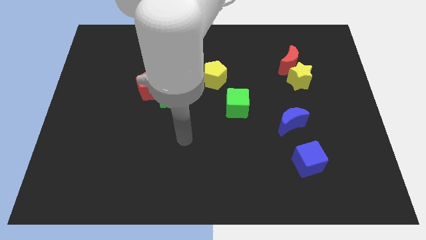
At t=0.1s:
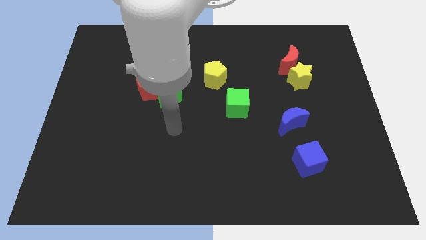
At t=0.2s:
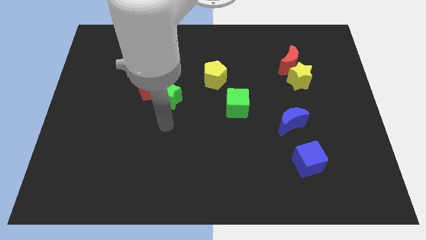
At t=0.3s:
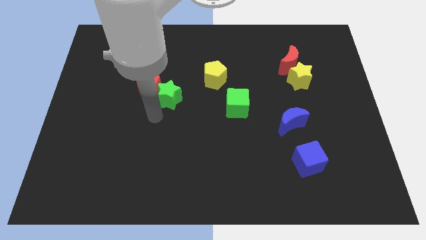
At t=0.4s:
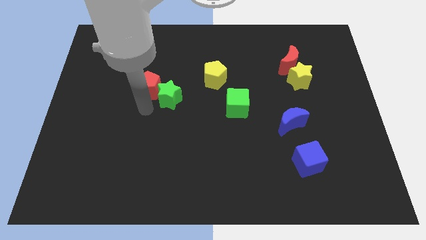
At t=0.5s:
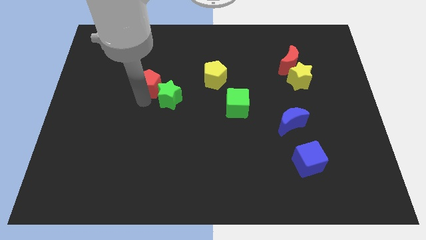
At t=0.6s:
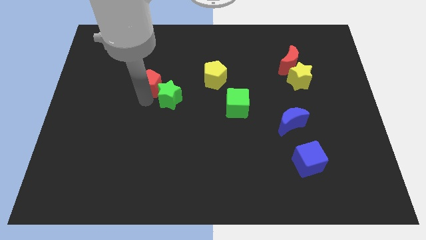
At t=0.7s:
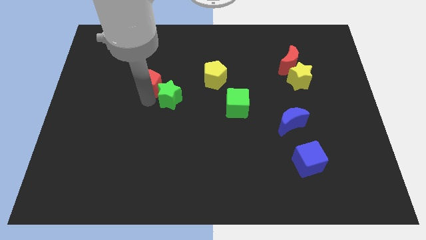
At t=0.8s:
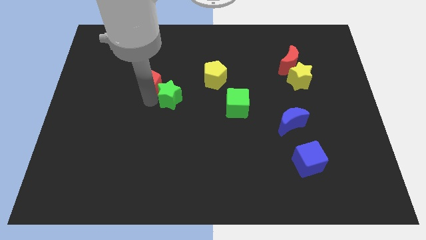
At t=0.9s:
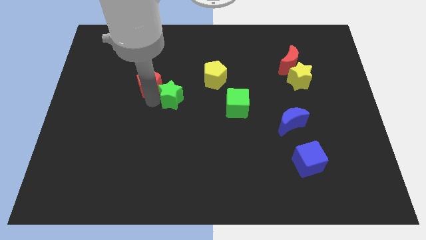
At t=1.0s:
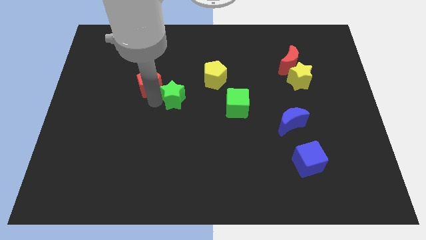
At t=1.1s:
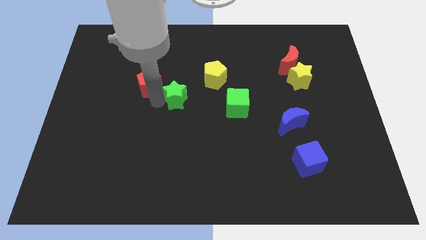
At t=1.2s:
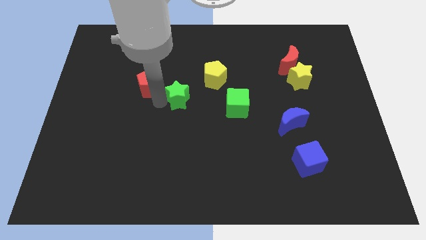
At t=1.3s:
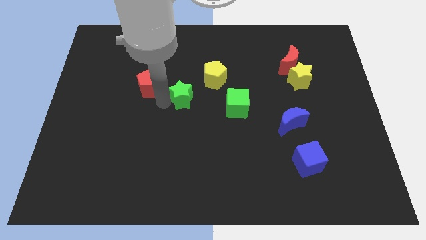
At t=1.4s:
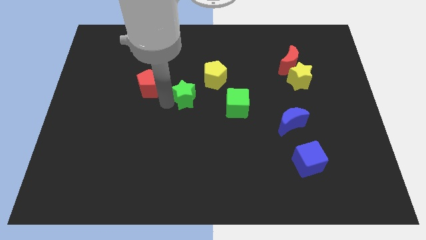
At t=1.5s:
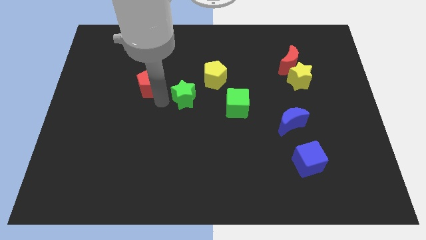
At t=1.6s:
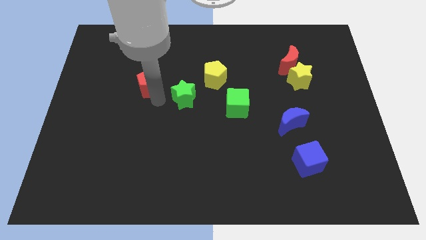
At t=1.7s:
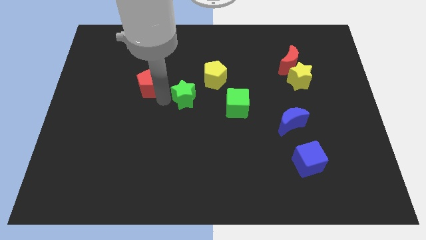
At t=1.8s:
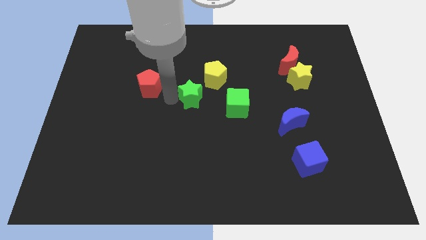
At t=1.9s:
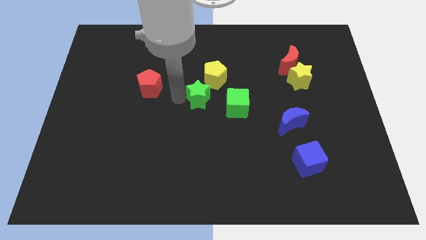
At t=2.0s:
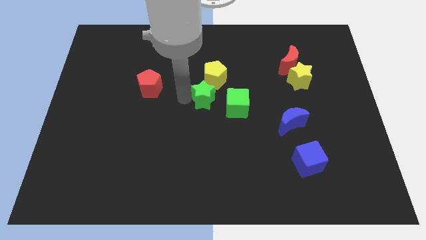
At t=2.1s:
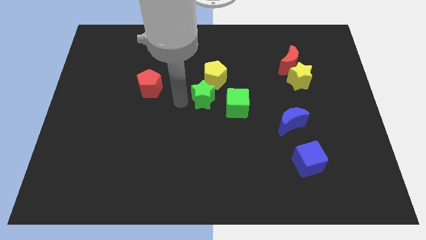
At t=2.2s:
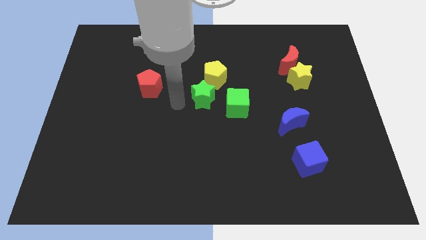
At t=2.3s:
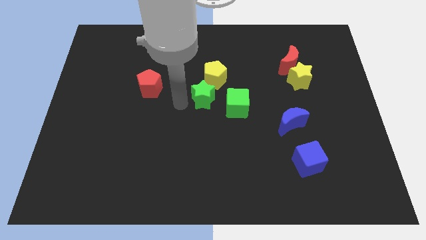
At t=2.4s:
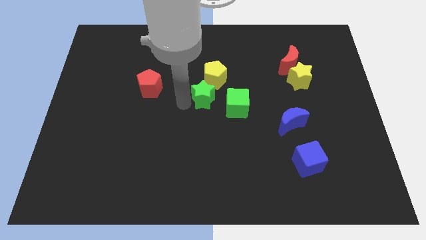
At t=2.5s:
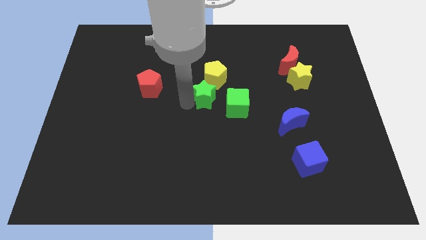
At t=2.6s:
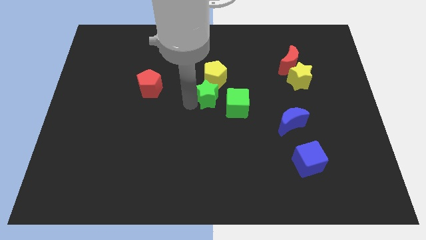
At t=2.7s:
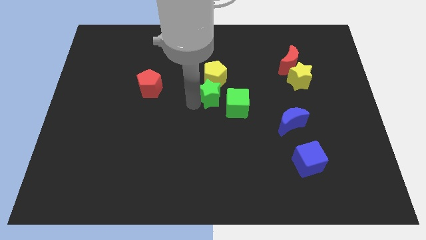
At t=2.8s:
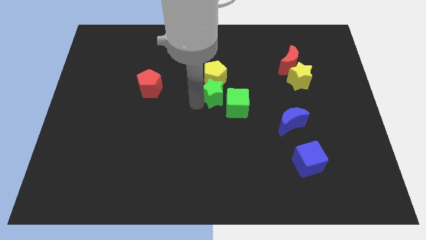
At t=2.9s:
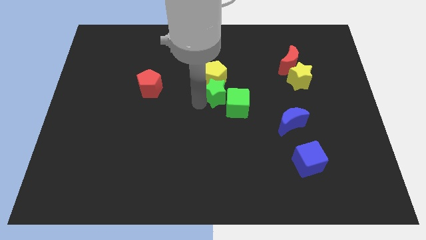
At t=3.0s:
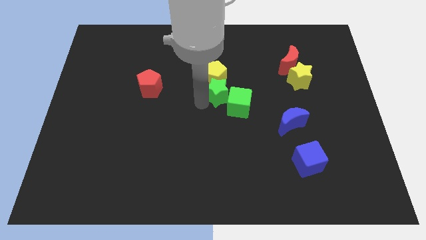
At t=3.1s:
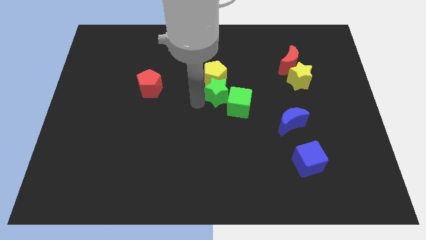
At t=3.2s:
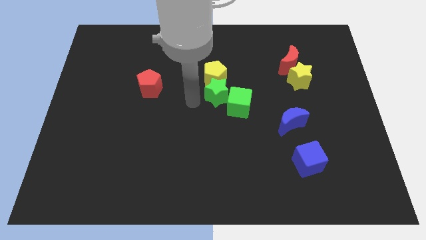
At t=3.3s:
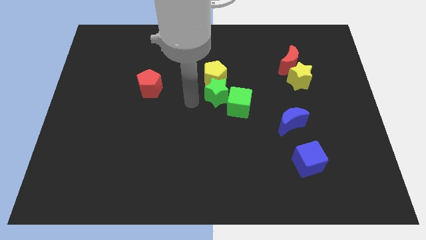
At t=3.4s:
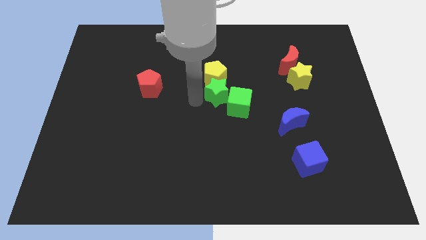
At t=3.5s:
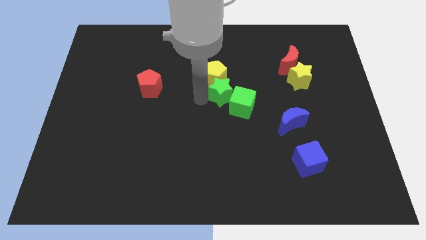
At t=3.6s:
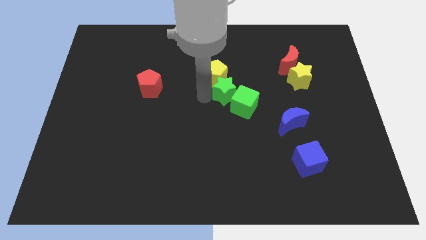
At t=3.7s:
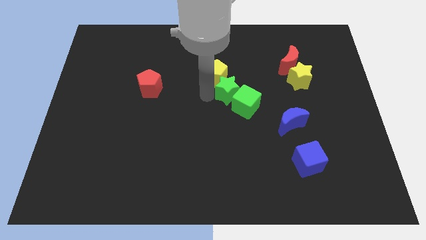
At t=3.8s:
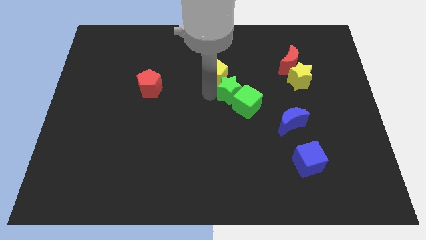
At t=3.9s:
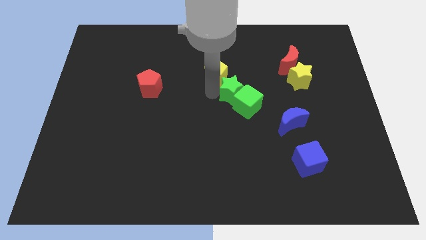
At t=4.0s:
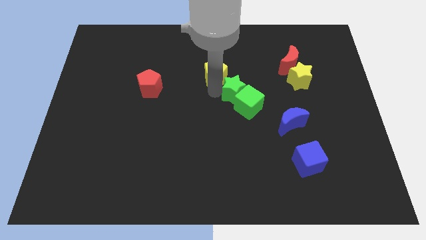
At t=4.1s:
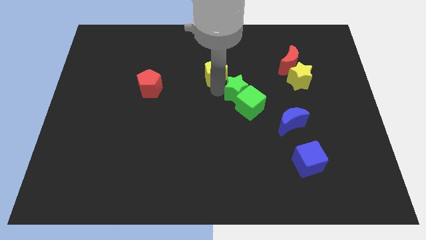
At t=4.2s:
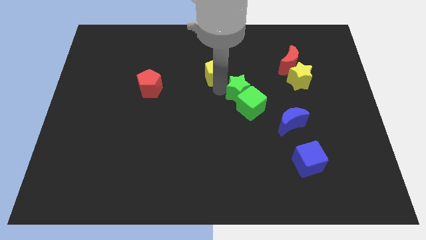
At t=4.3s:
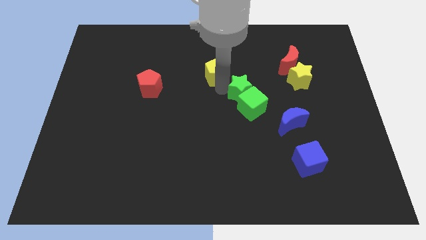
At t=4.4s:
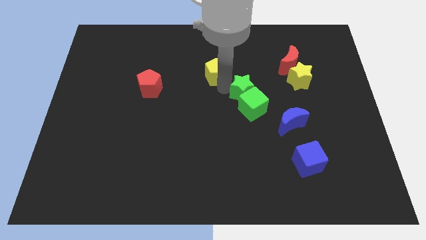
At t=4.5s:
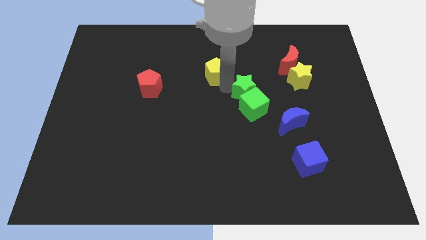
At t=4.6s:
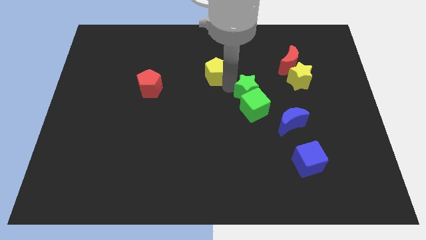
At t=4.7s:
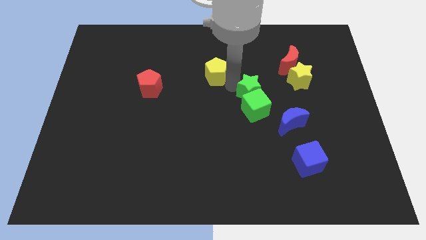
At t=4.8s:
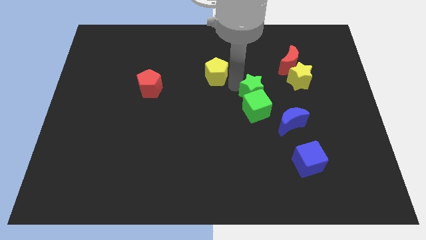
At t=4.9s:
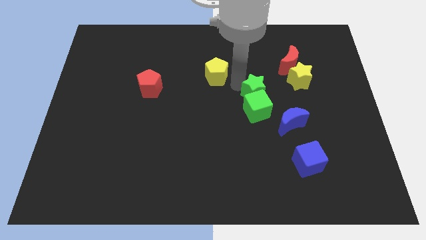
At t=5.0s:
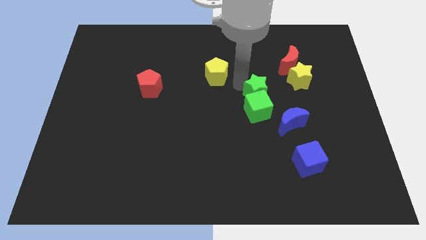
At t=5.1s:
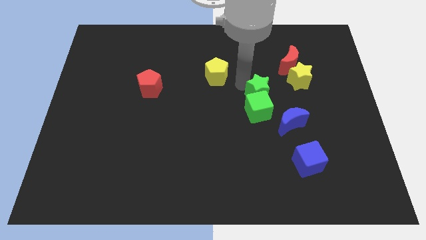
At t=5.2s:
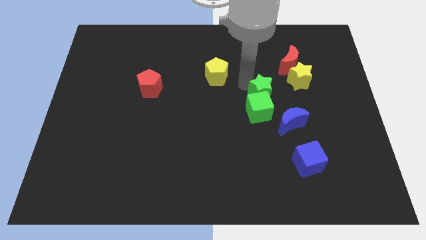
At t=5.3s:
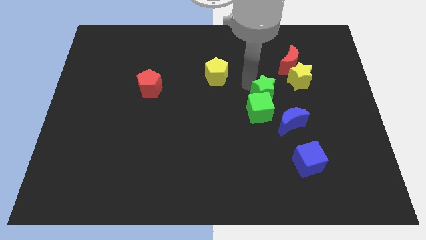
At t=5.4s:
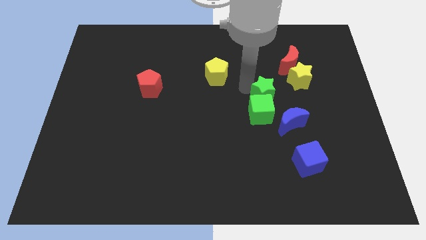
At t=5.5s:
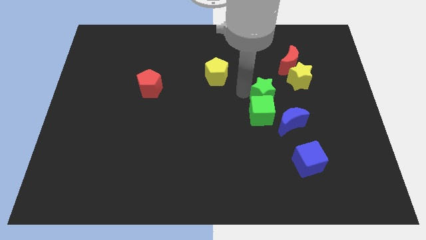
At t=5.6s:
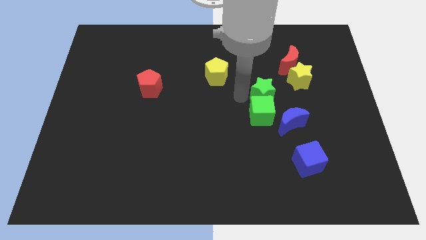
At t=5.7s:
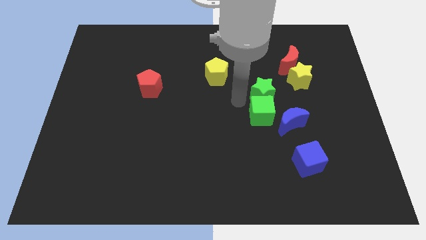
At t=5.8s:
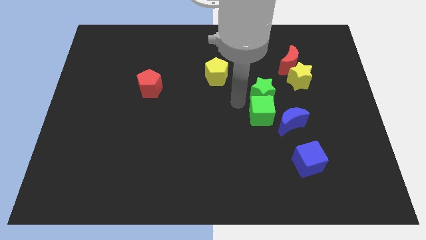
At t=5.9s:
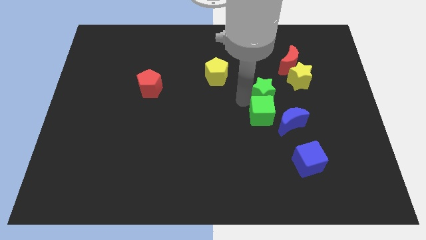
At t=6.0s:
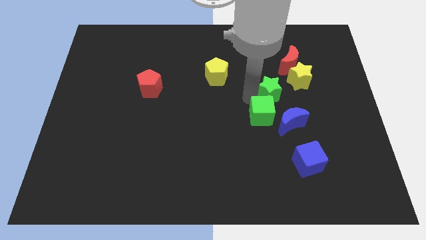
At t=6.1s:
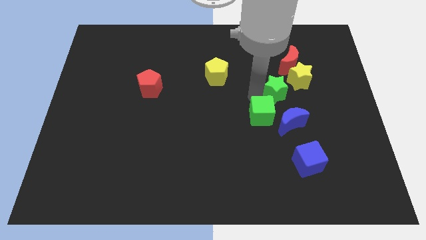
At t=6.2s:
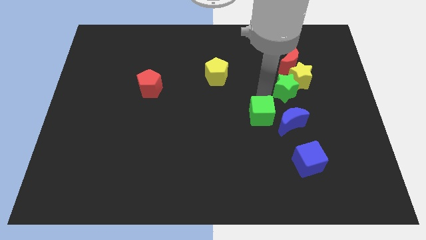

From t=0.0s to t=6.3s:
push the green star to the yellow star

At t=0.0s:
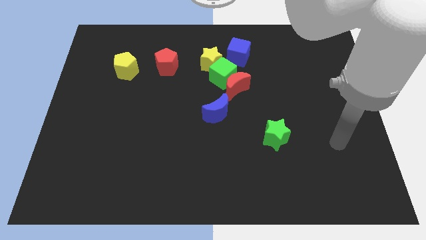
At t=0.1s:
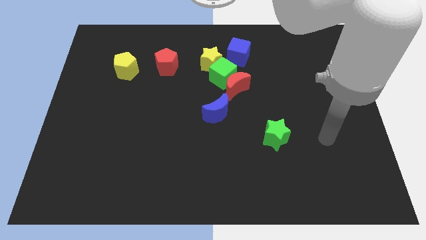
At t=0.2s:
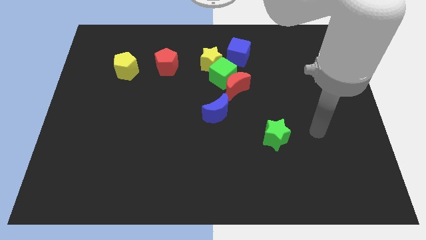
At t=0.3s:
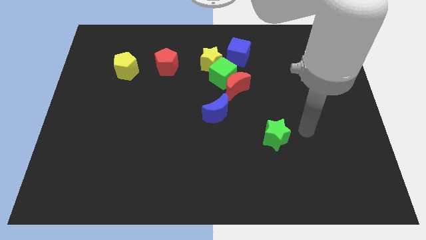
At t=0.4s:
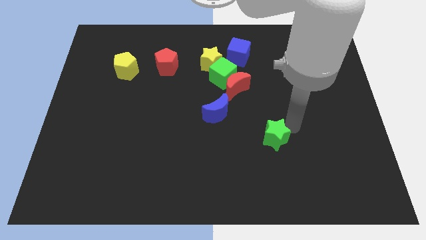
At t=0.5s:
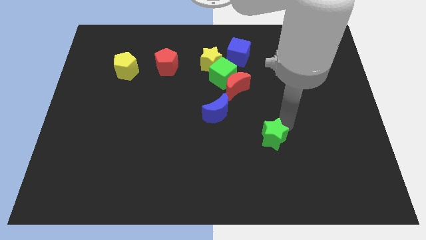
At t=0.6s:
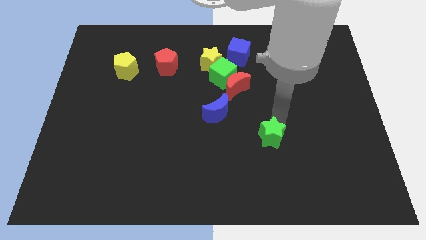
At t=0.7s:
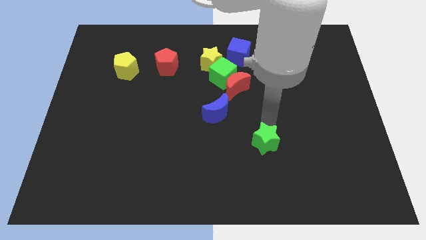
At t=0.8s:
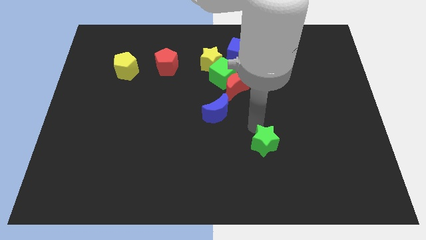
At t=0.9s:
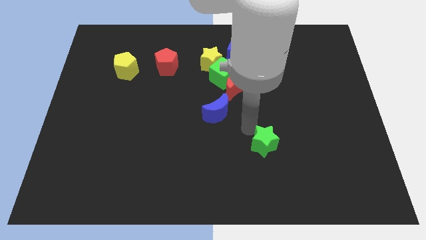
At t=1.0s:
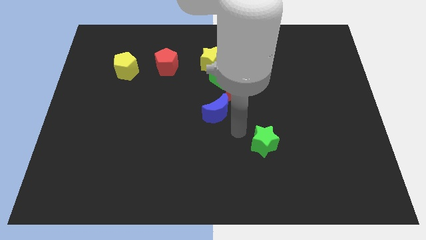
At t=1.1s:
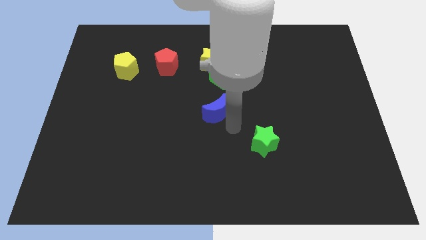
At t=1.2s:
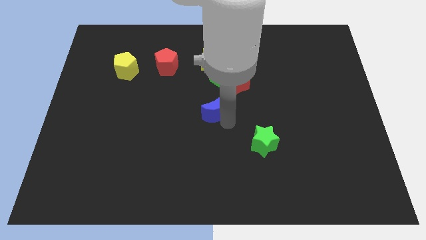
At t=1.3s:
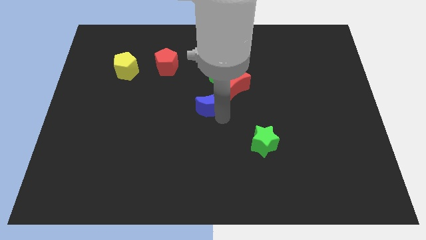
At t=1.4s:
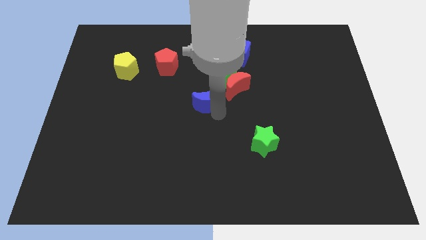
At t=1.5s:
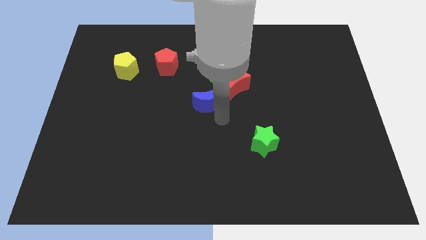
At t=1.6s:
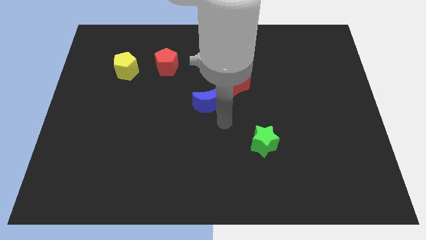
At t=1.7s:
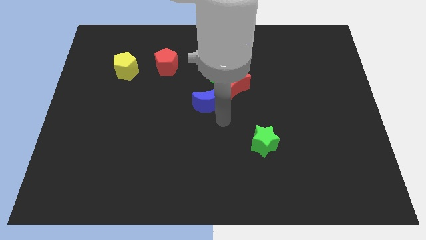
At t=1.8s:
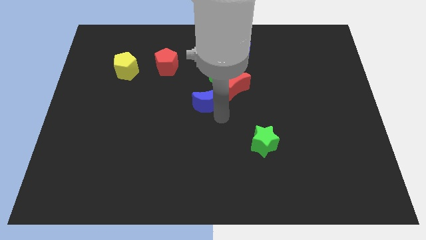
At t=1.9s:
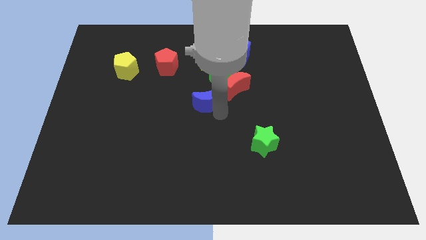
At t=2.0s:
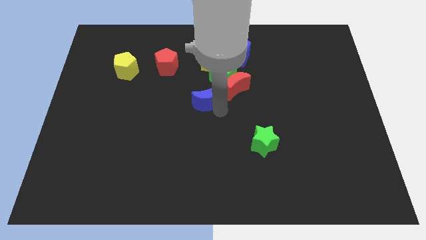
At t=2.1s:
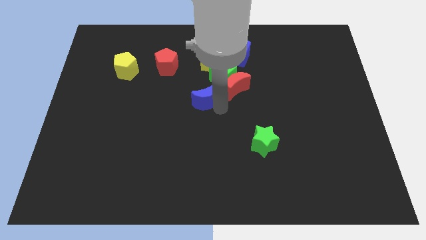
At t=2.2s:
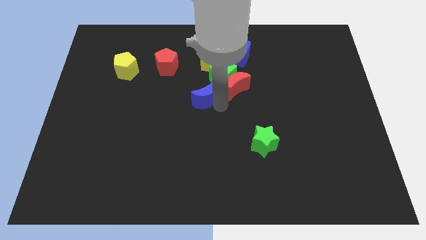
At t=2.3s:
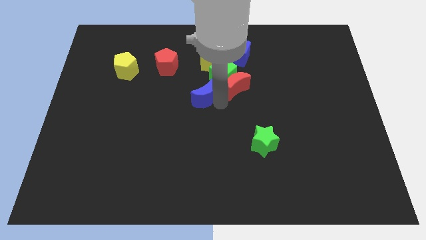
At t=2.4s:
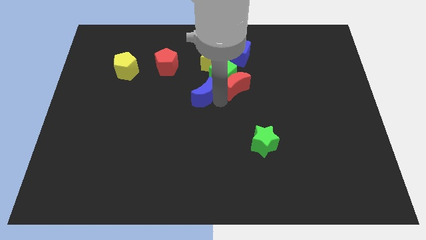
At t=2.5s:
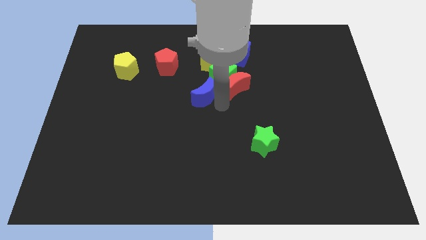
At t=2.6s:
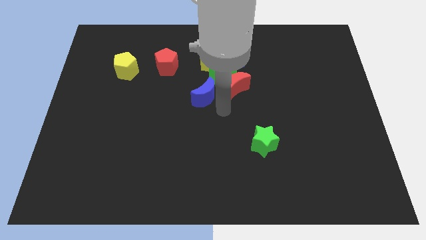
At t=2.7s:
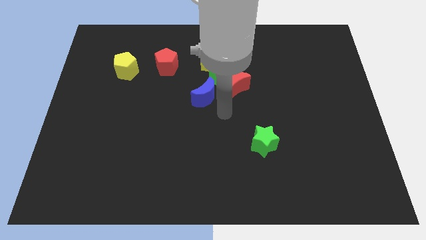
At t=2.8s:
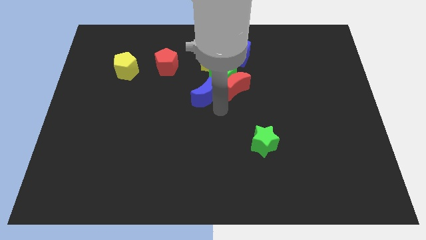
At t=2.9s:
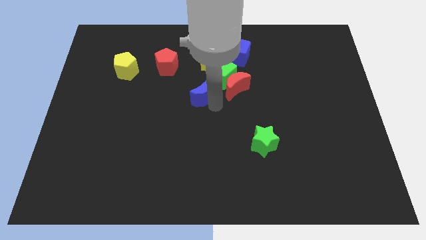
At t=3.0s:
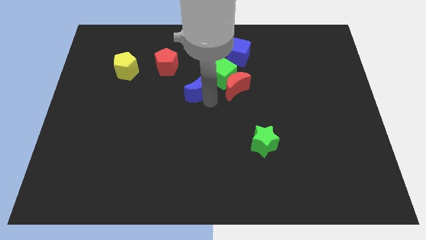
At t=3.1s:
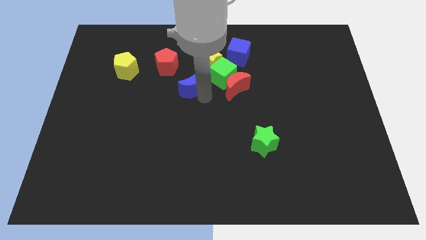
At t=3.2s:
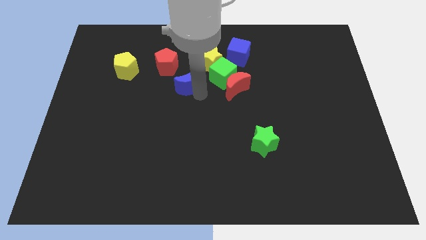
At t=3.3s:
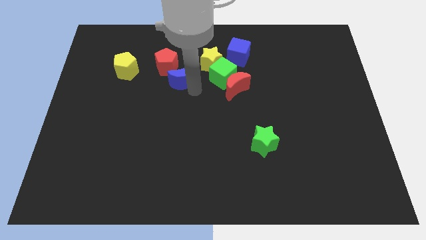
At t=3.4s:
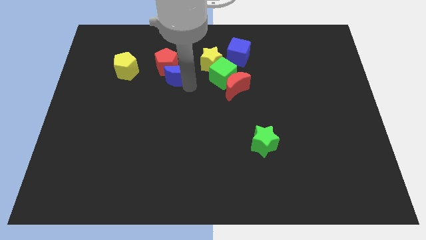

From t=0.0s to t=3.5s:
push the blue moon towards the red pentagon
